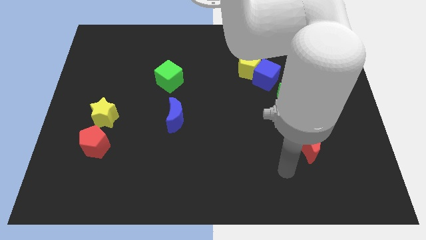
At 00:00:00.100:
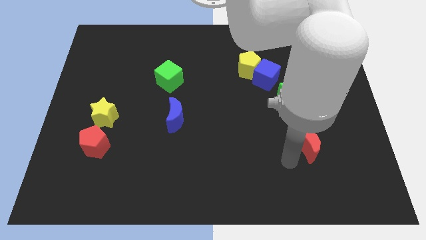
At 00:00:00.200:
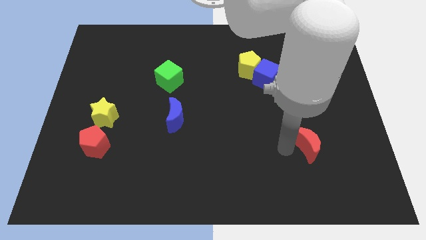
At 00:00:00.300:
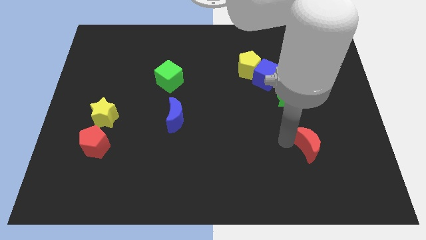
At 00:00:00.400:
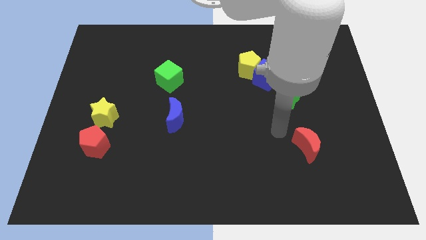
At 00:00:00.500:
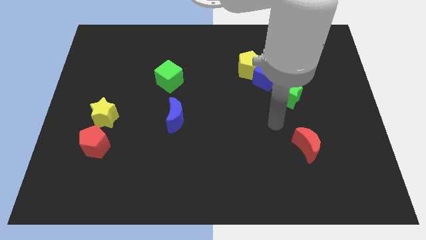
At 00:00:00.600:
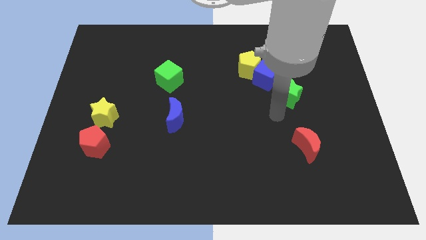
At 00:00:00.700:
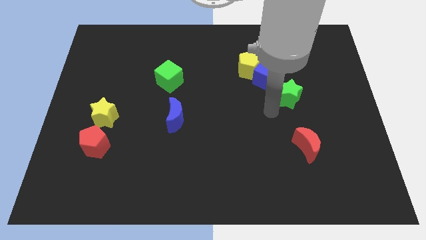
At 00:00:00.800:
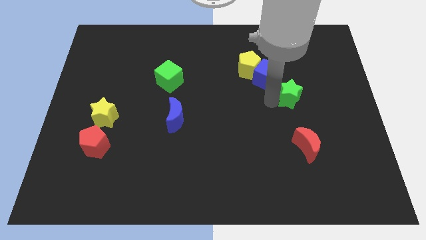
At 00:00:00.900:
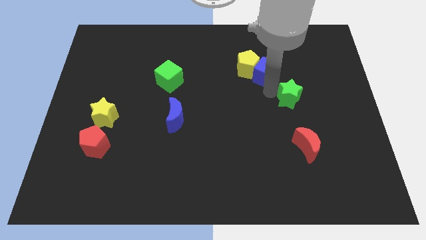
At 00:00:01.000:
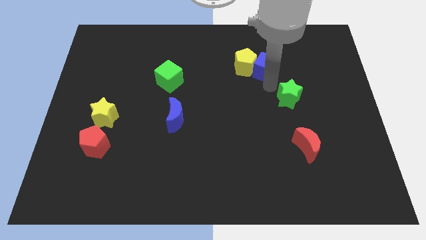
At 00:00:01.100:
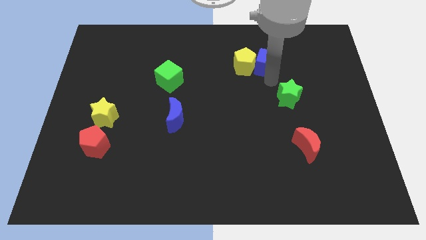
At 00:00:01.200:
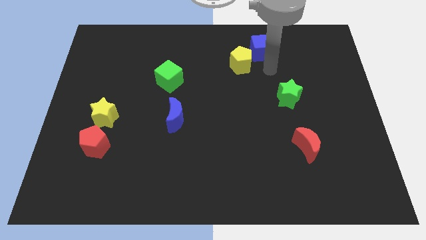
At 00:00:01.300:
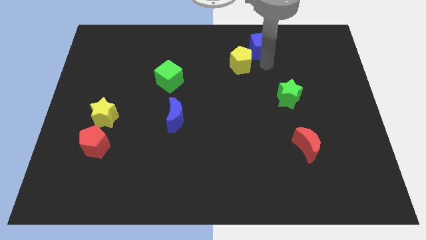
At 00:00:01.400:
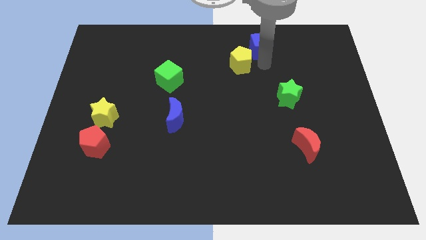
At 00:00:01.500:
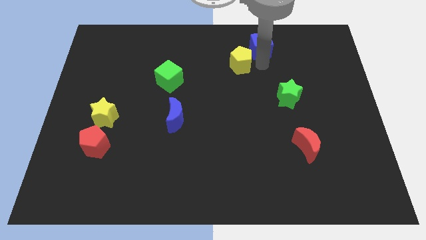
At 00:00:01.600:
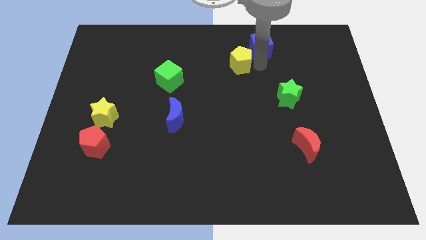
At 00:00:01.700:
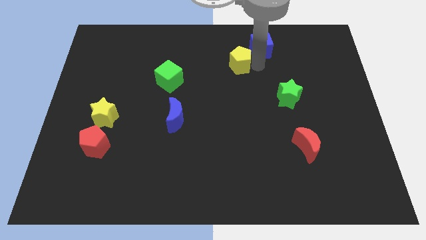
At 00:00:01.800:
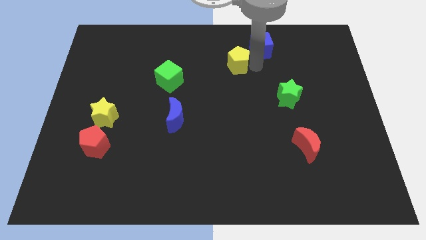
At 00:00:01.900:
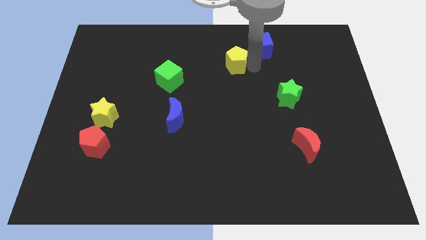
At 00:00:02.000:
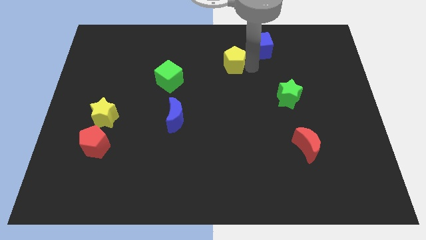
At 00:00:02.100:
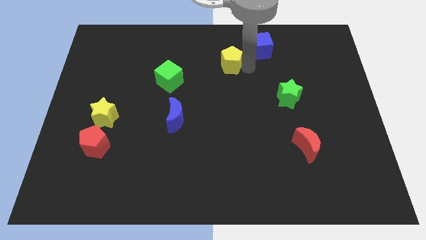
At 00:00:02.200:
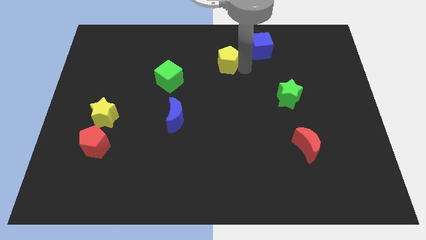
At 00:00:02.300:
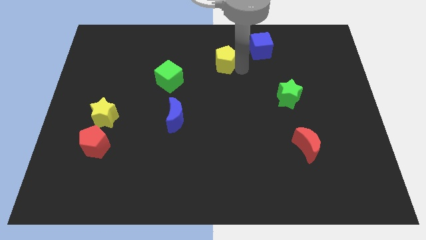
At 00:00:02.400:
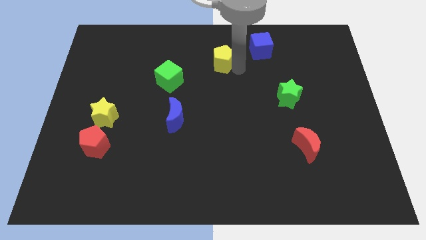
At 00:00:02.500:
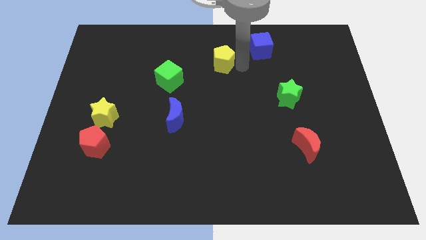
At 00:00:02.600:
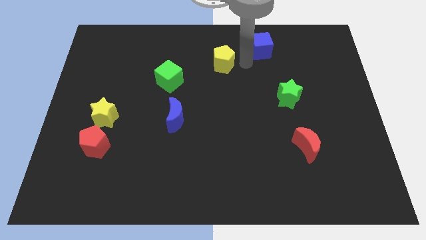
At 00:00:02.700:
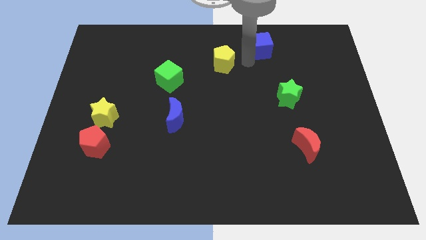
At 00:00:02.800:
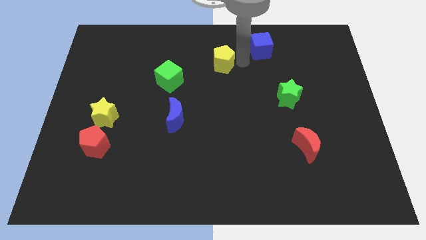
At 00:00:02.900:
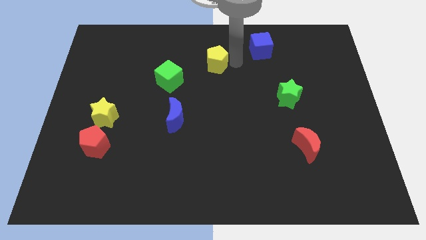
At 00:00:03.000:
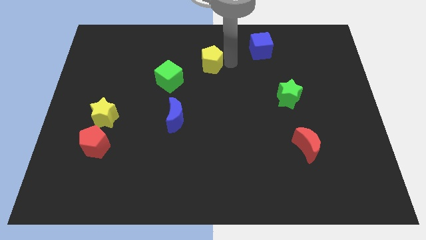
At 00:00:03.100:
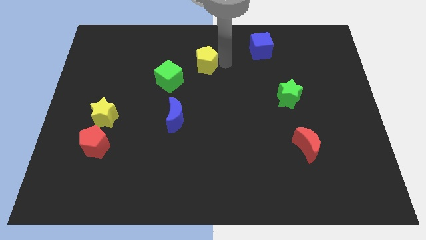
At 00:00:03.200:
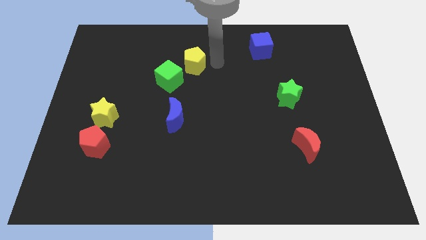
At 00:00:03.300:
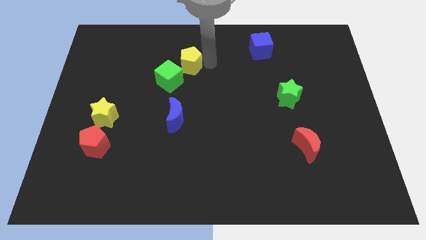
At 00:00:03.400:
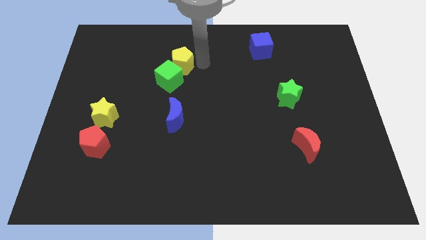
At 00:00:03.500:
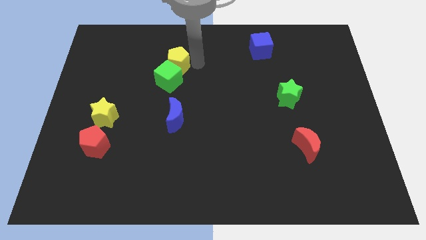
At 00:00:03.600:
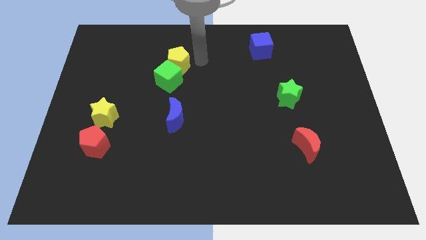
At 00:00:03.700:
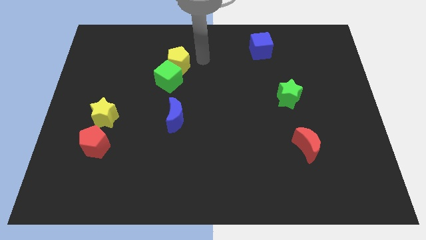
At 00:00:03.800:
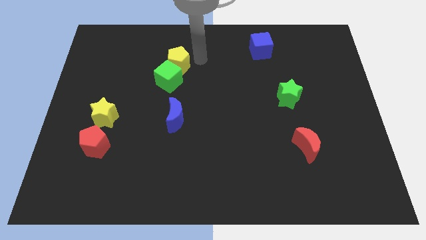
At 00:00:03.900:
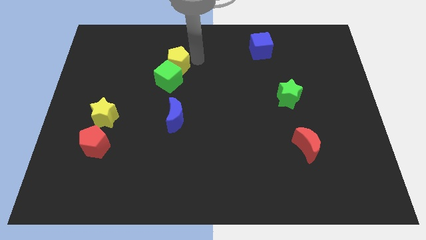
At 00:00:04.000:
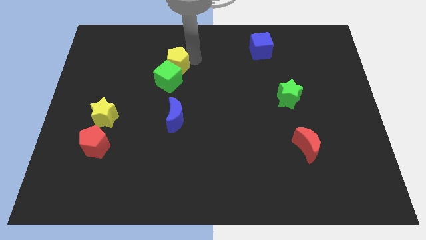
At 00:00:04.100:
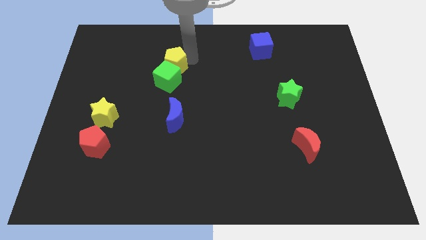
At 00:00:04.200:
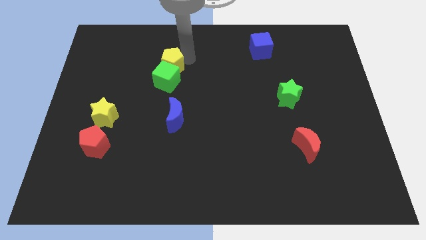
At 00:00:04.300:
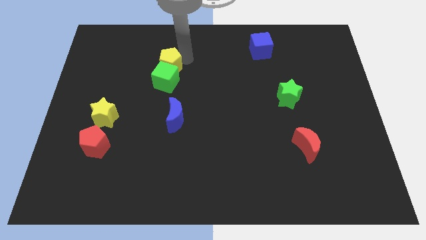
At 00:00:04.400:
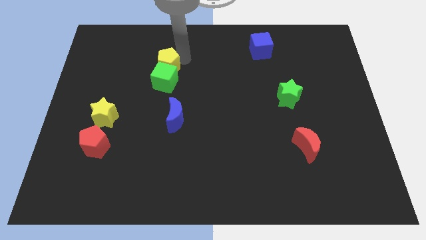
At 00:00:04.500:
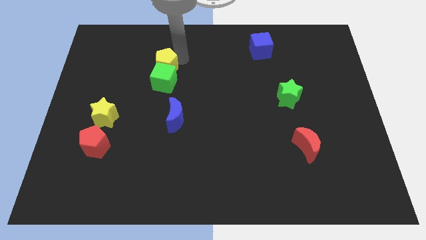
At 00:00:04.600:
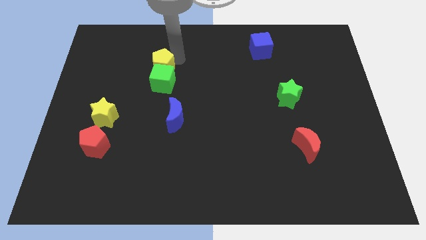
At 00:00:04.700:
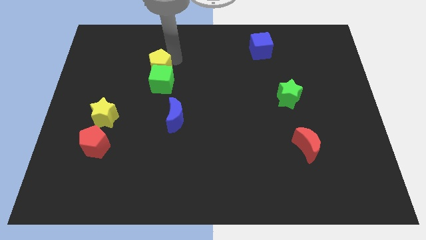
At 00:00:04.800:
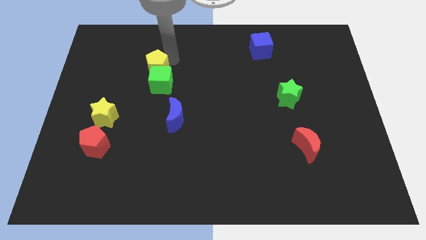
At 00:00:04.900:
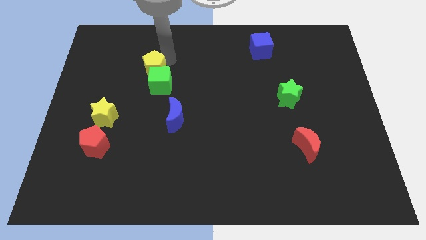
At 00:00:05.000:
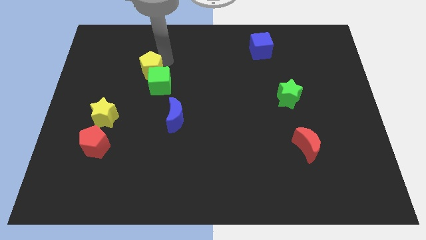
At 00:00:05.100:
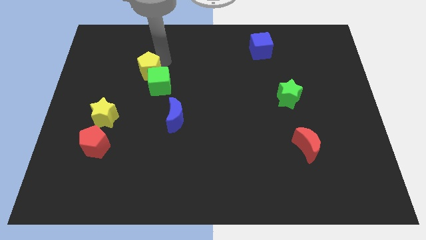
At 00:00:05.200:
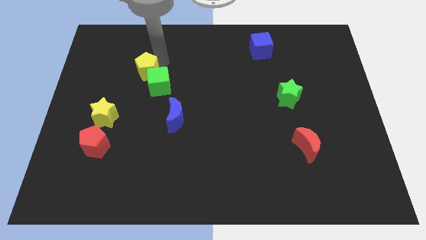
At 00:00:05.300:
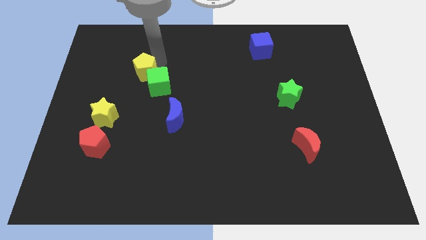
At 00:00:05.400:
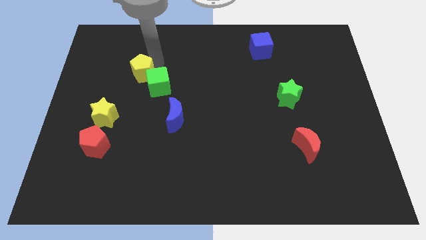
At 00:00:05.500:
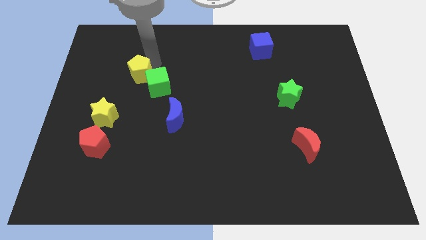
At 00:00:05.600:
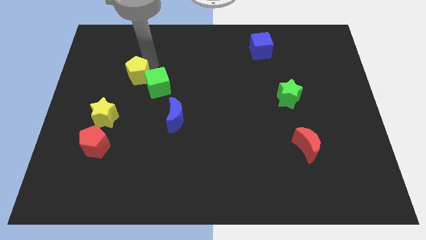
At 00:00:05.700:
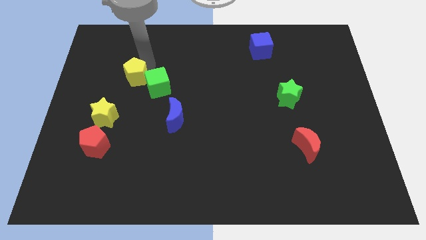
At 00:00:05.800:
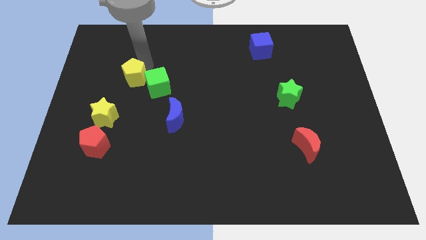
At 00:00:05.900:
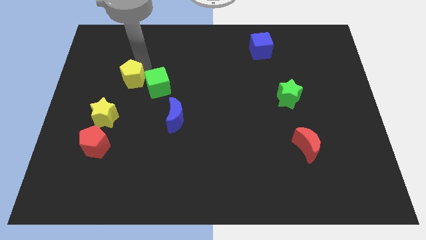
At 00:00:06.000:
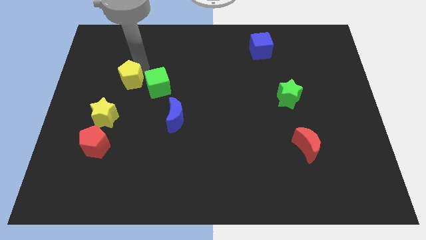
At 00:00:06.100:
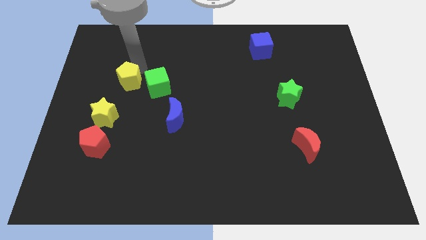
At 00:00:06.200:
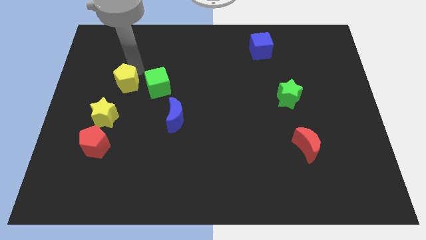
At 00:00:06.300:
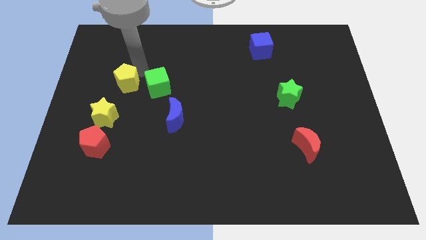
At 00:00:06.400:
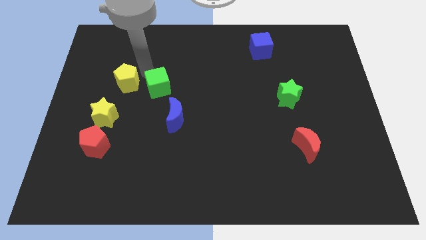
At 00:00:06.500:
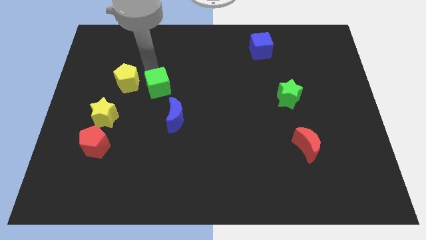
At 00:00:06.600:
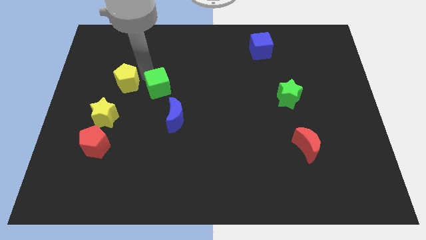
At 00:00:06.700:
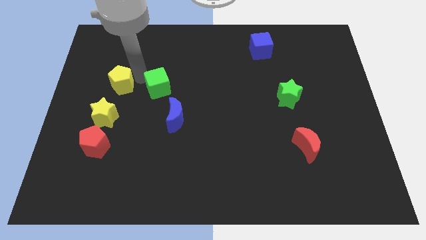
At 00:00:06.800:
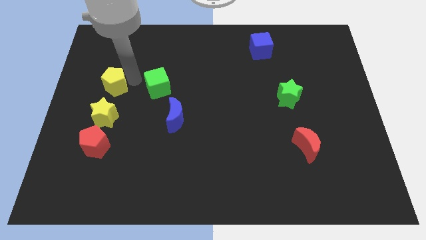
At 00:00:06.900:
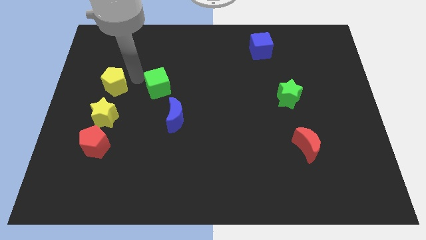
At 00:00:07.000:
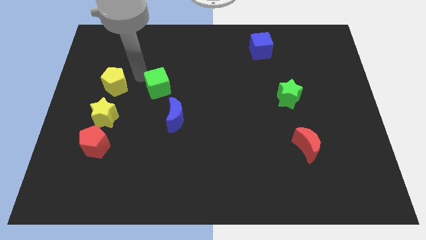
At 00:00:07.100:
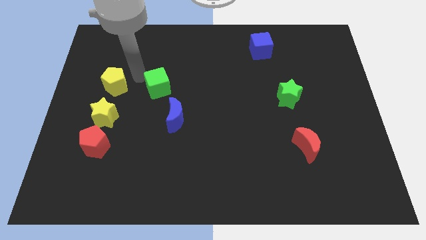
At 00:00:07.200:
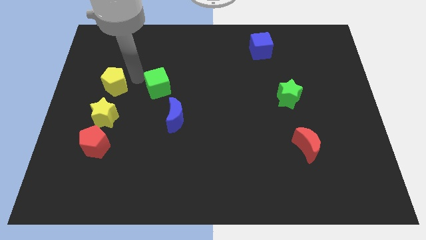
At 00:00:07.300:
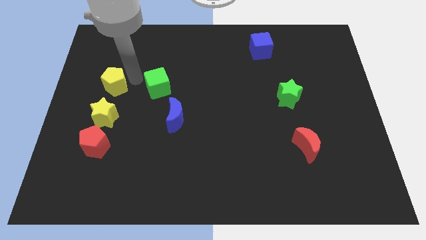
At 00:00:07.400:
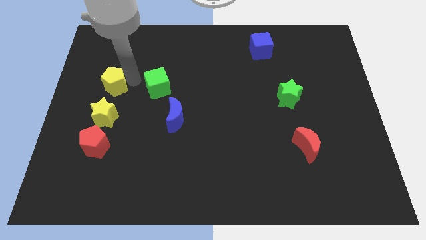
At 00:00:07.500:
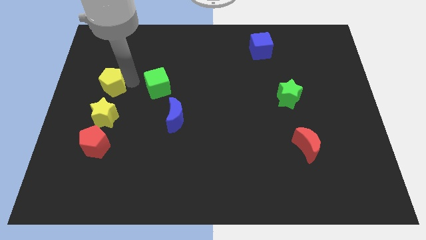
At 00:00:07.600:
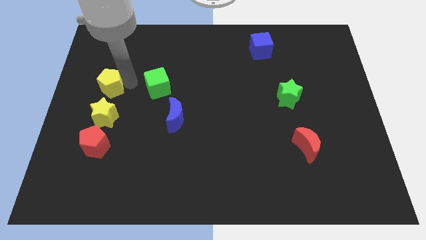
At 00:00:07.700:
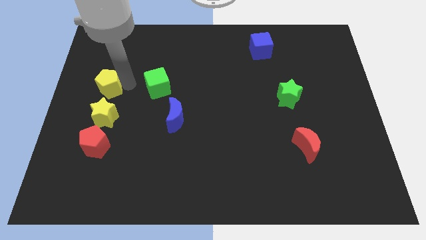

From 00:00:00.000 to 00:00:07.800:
move the yellow pentagon to the left side
